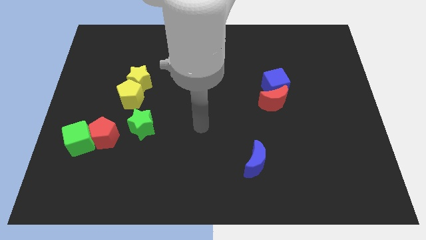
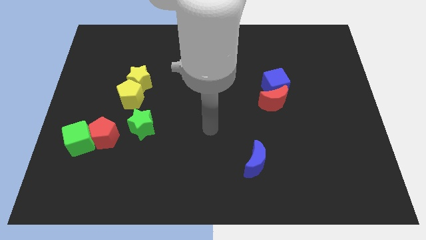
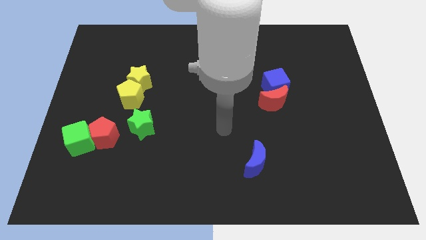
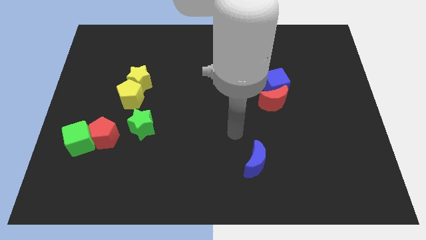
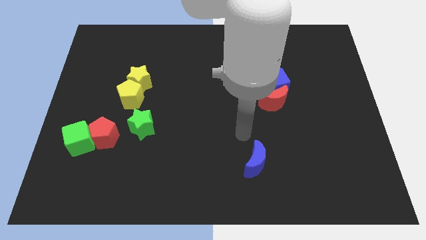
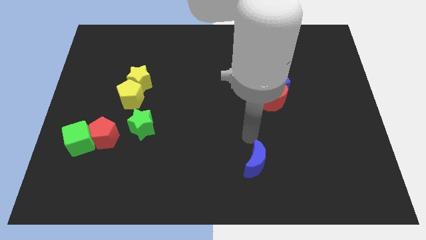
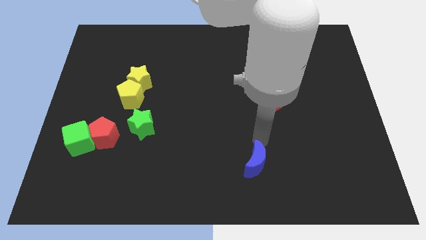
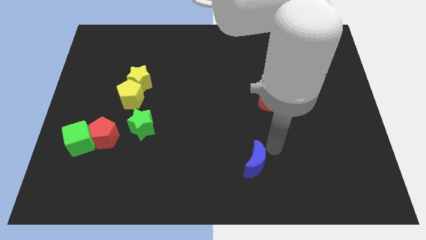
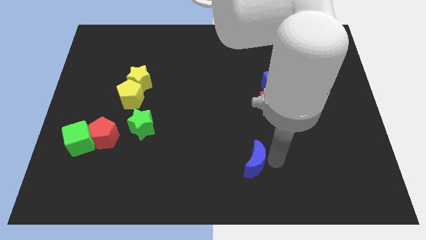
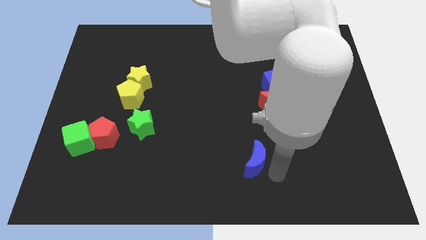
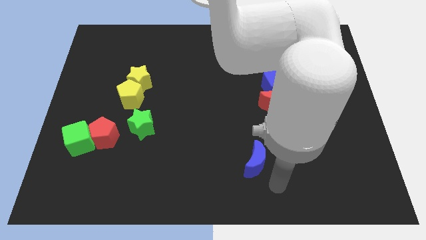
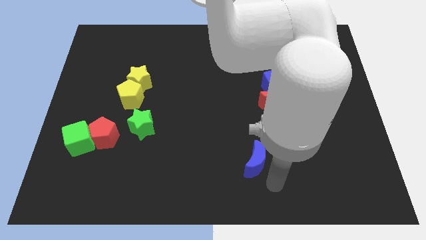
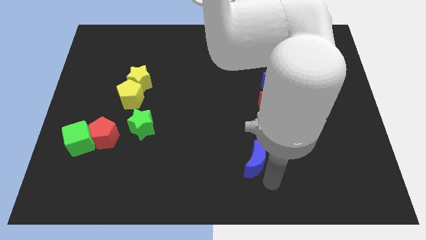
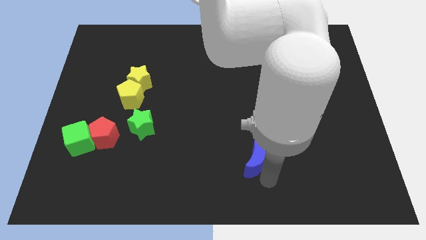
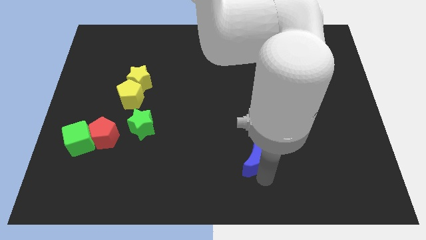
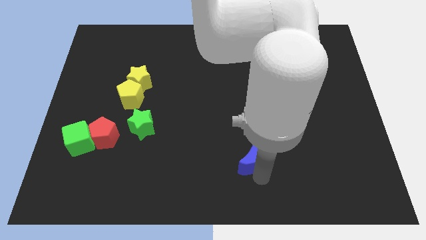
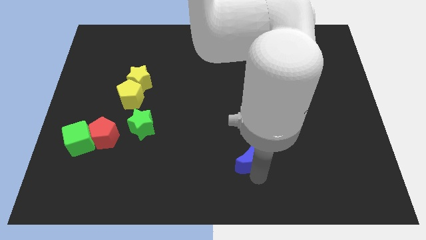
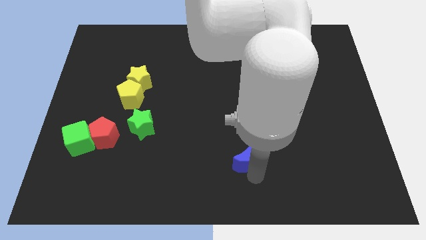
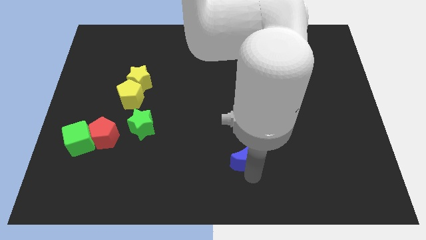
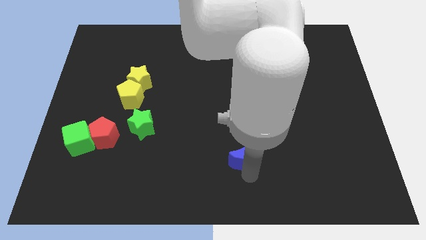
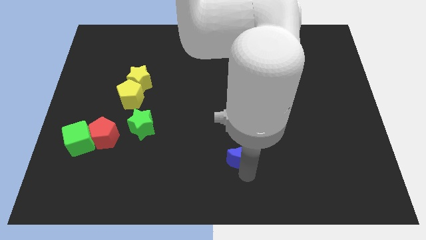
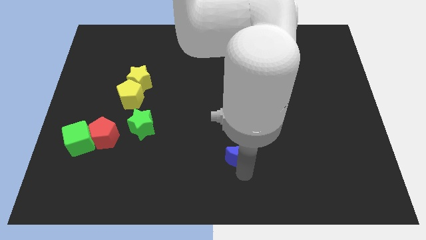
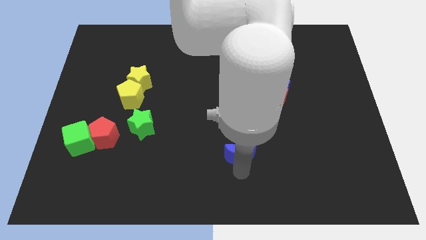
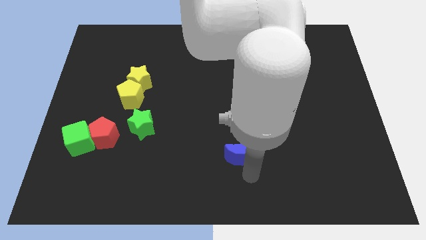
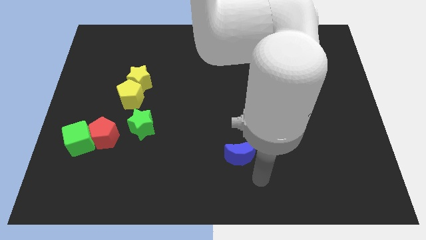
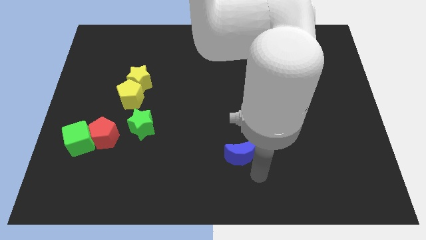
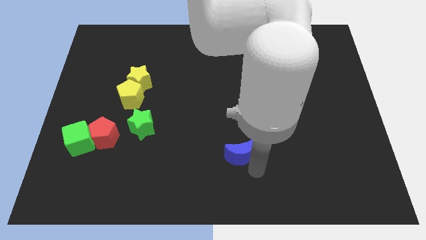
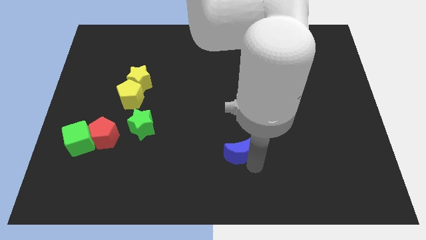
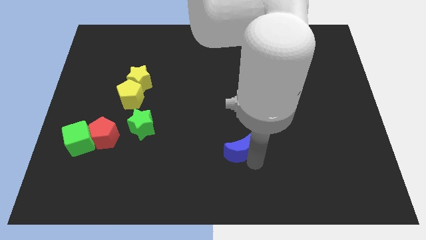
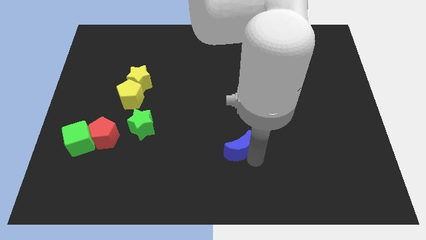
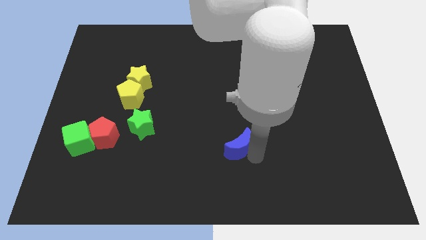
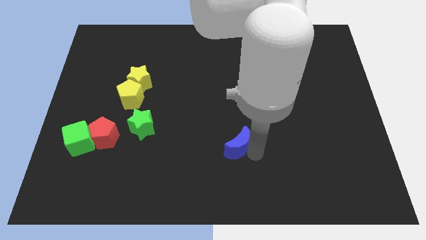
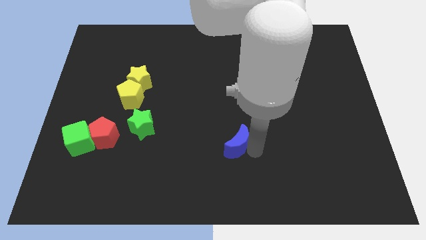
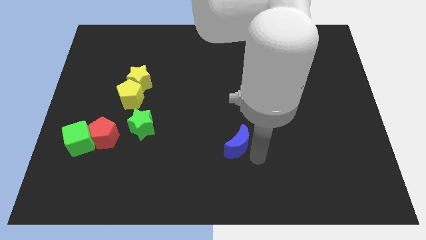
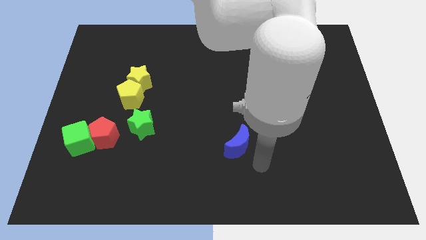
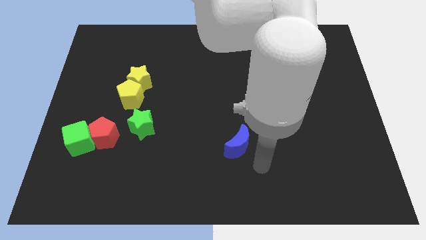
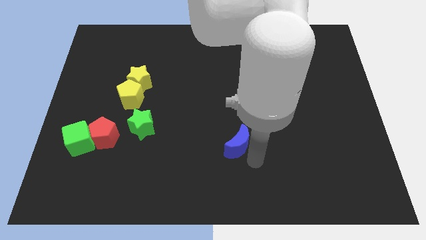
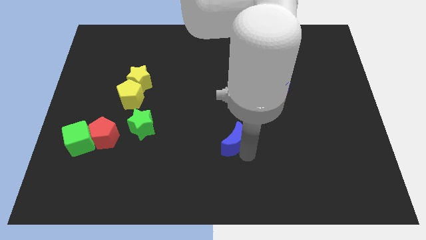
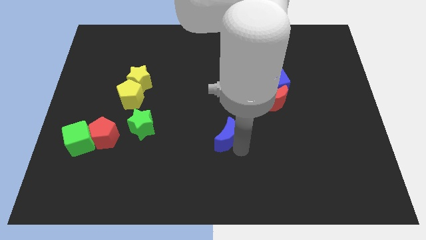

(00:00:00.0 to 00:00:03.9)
slide the blue moon slightly upwards and then left

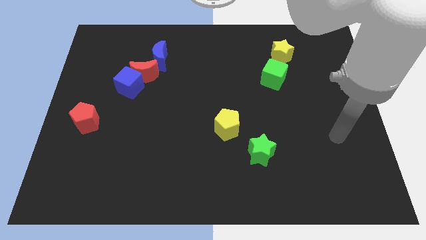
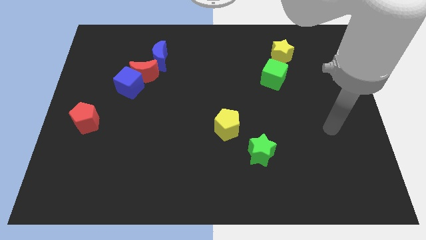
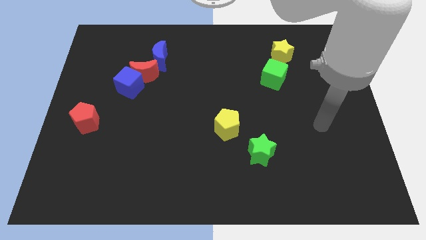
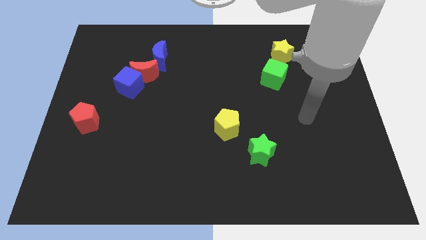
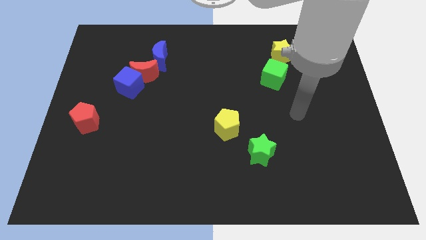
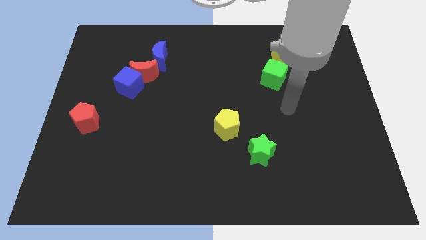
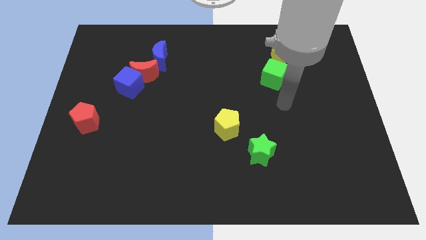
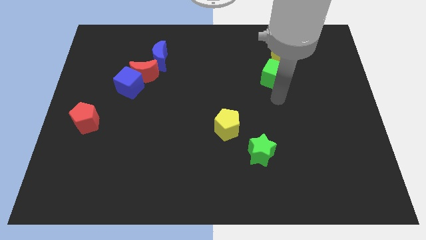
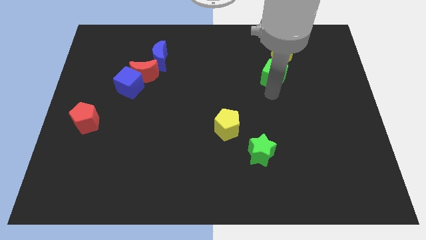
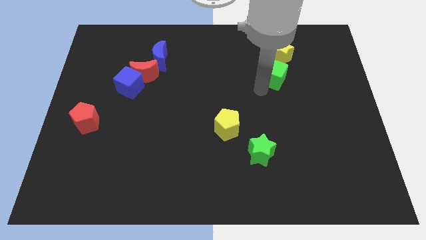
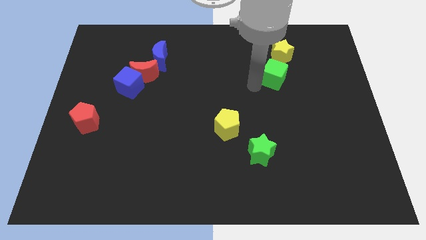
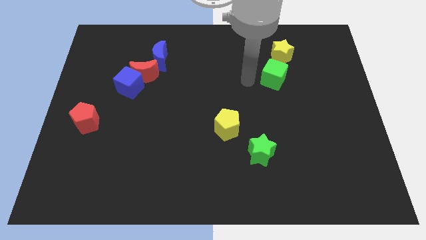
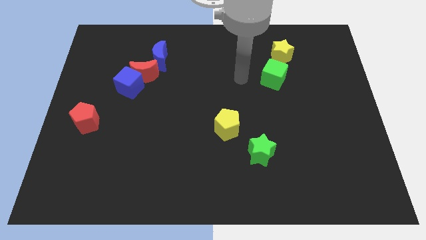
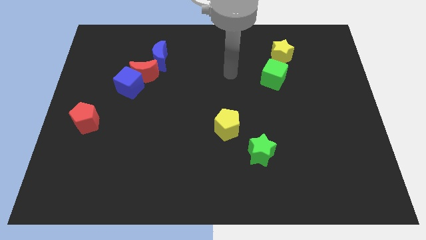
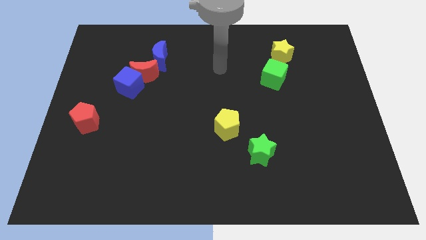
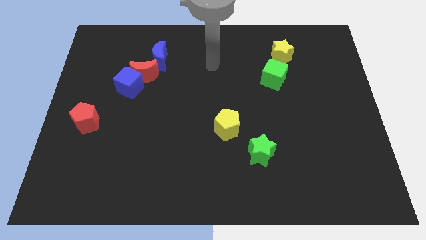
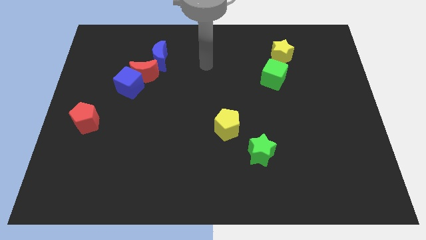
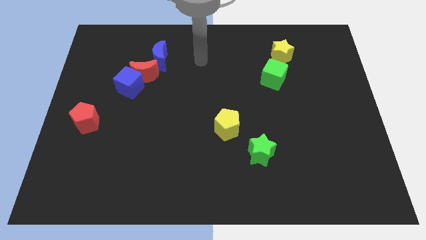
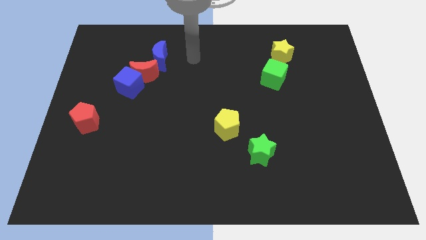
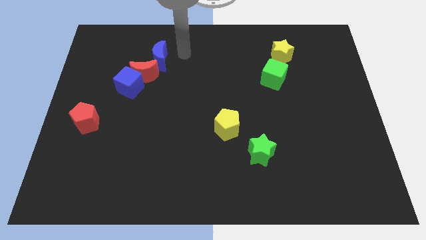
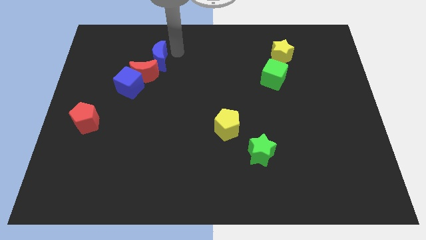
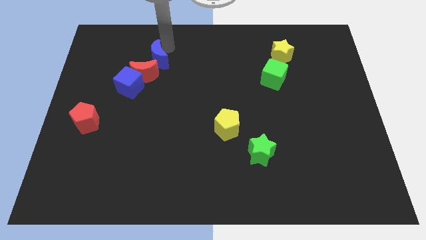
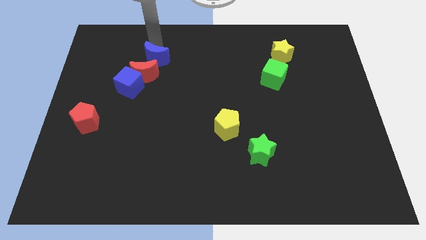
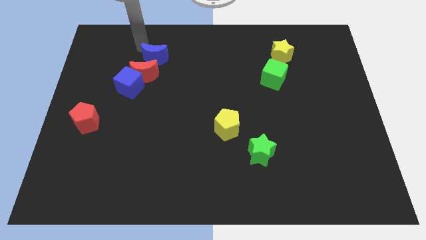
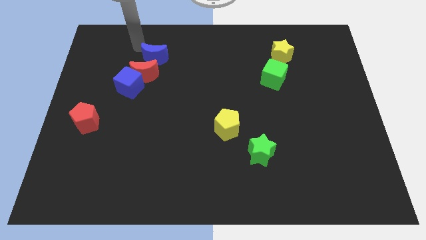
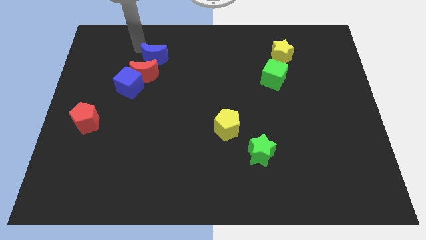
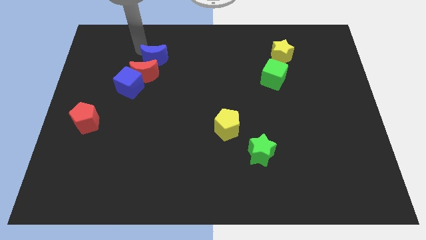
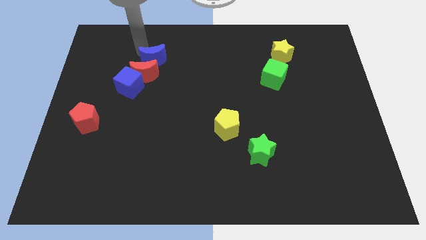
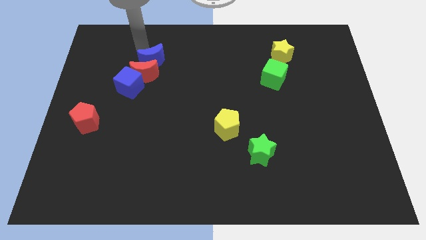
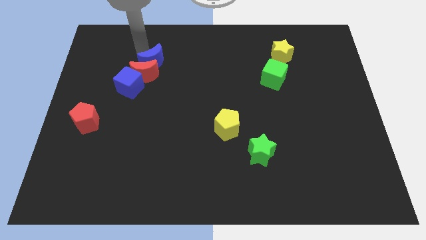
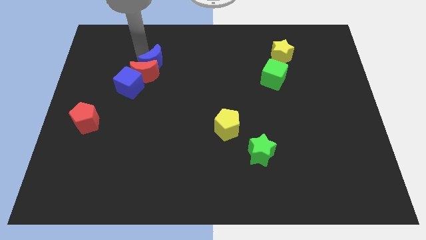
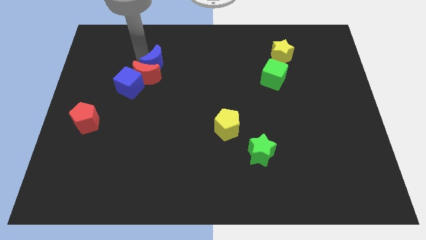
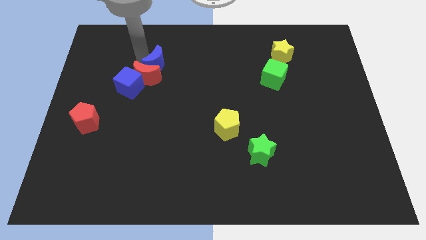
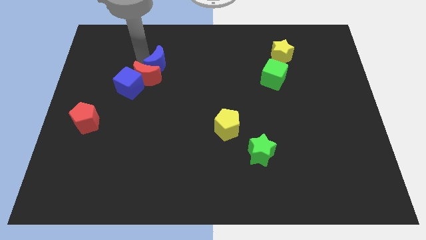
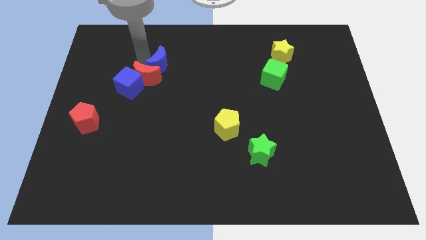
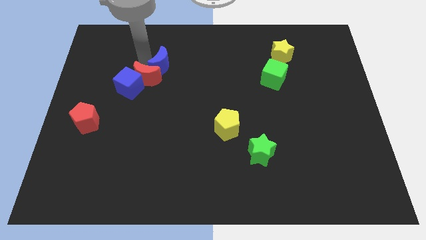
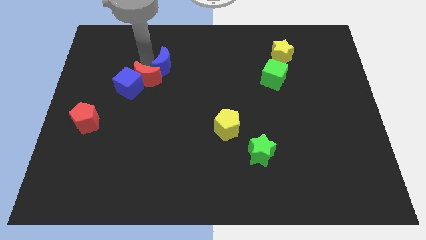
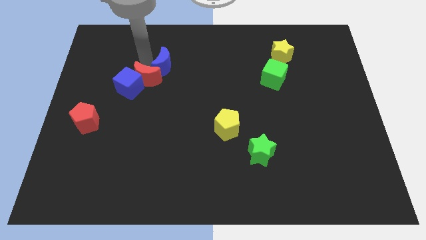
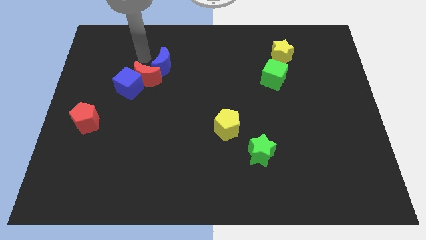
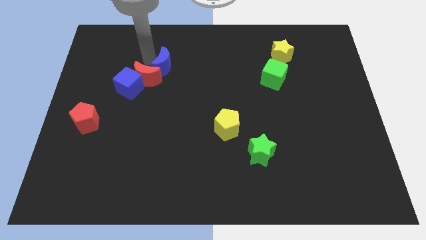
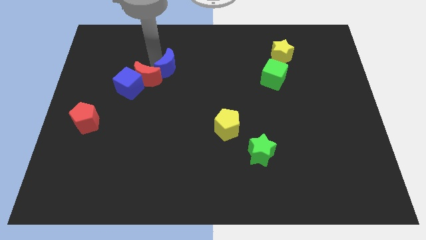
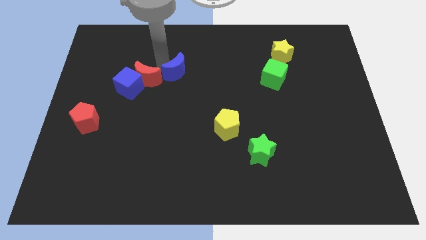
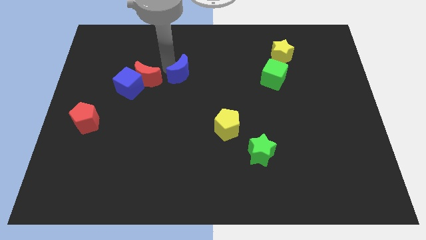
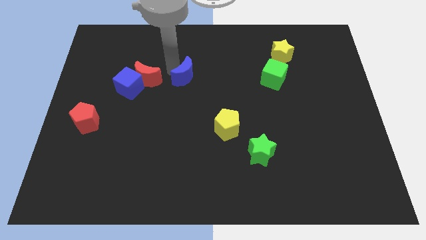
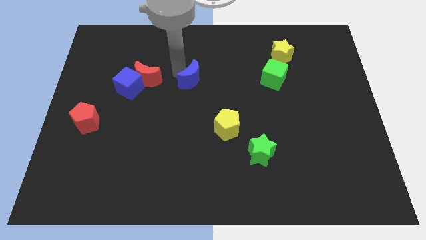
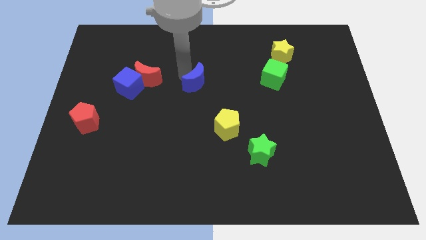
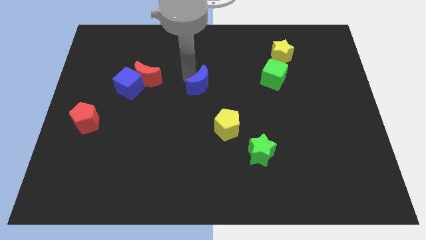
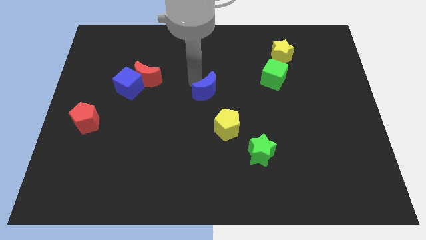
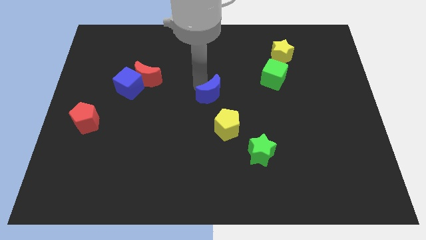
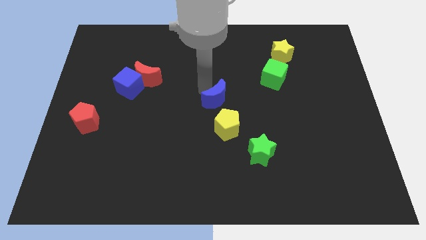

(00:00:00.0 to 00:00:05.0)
slide the blue moon downwards and then right
